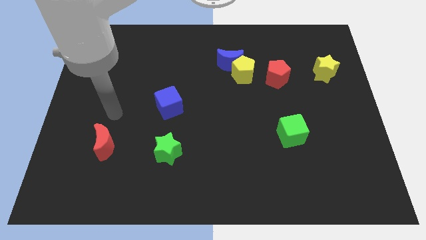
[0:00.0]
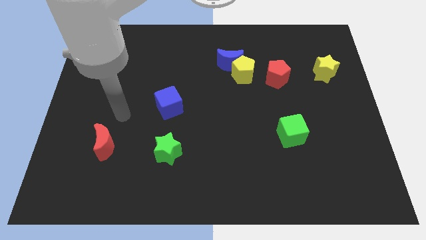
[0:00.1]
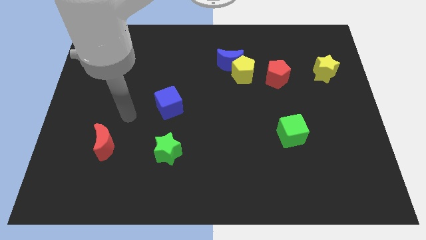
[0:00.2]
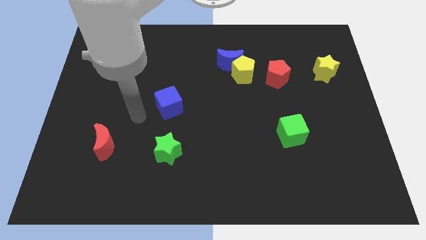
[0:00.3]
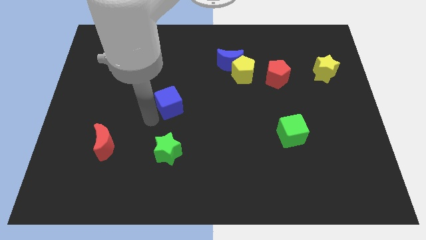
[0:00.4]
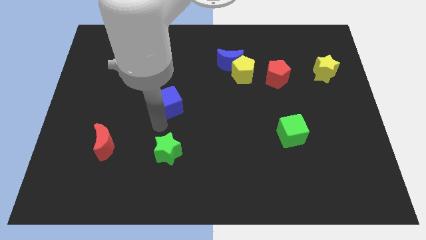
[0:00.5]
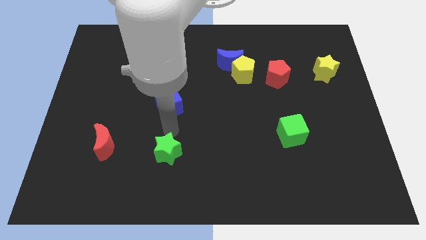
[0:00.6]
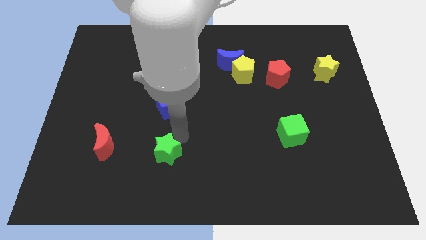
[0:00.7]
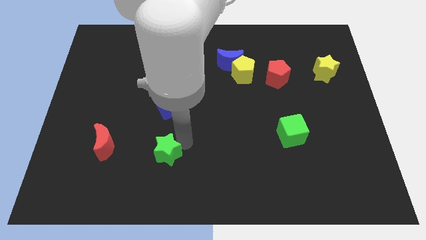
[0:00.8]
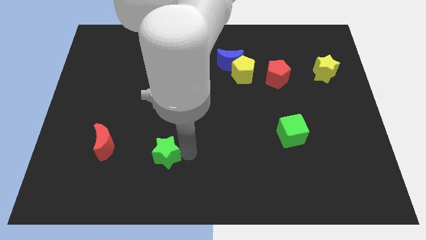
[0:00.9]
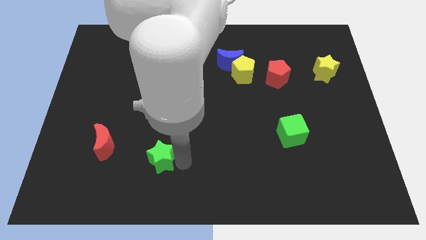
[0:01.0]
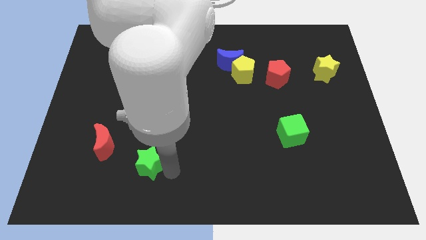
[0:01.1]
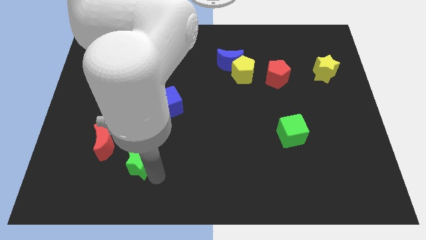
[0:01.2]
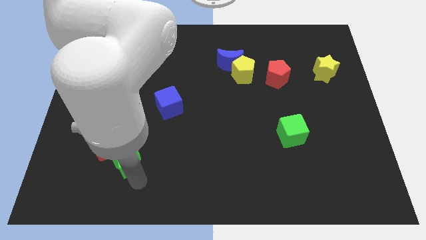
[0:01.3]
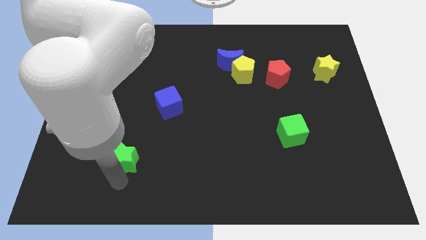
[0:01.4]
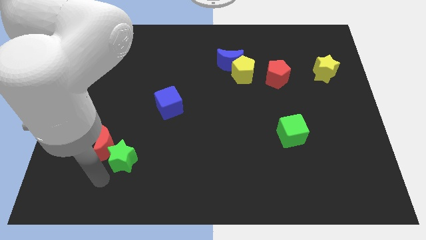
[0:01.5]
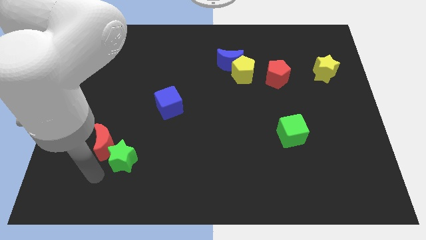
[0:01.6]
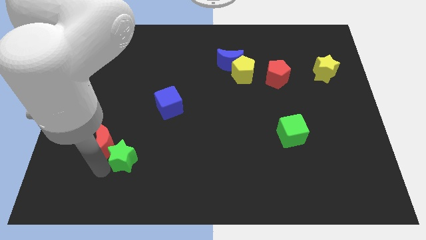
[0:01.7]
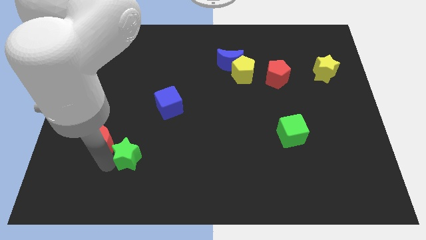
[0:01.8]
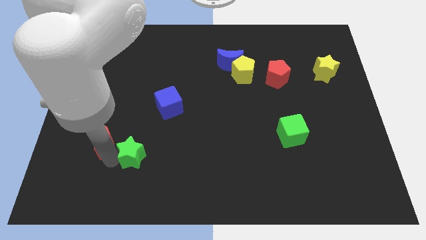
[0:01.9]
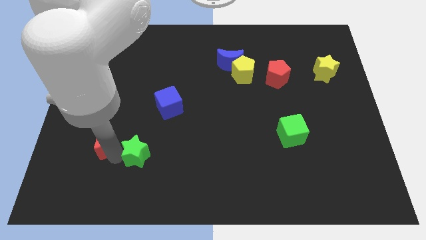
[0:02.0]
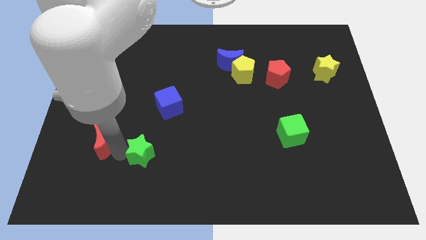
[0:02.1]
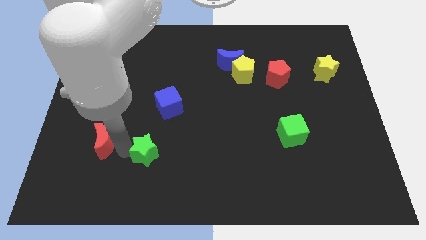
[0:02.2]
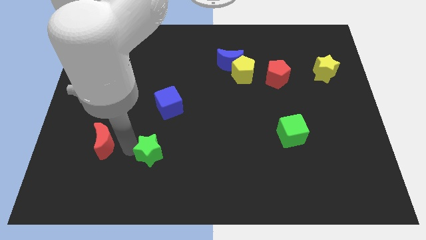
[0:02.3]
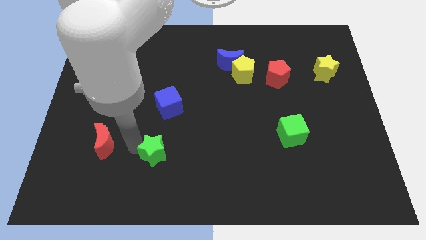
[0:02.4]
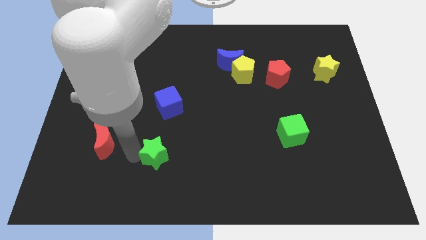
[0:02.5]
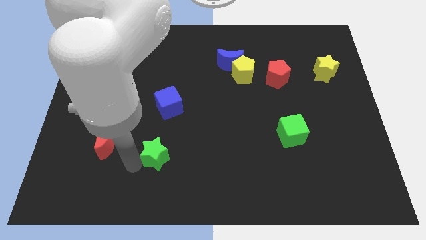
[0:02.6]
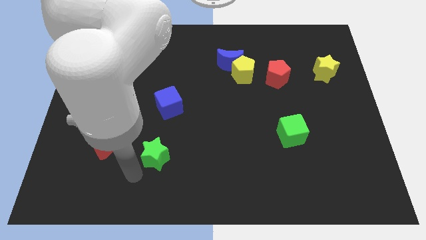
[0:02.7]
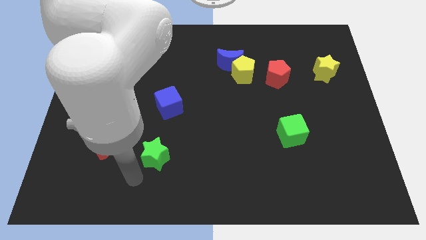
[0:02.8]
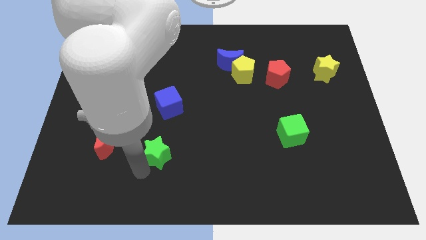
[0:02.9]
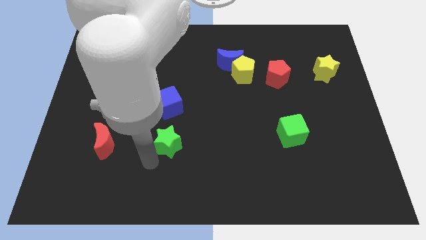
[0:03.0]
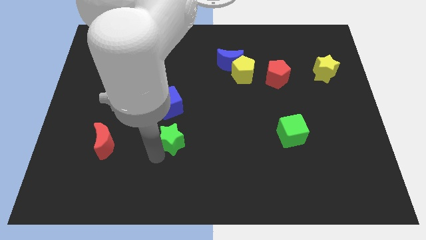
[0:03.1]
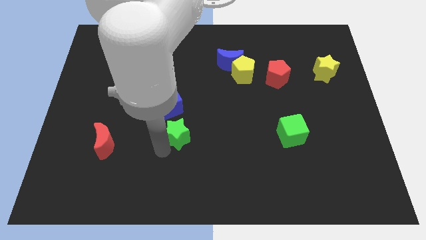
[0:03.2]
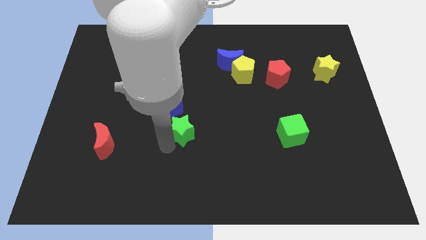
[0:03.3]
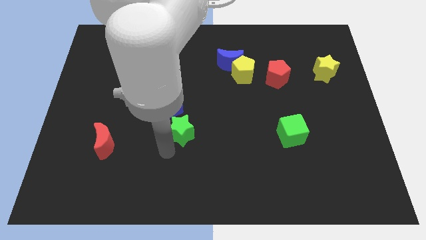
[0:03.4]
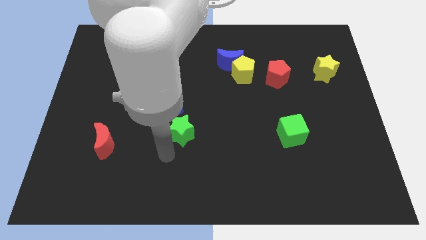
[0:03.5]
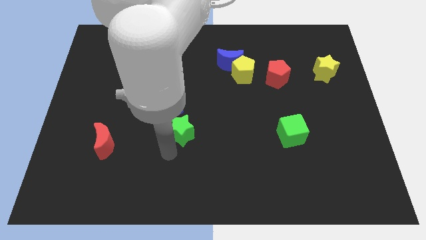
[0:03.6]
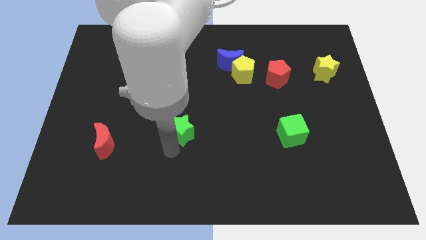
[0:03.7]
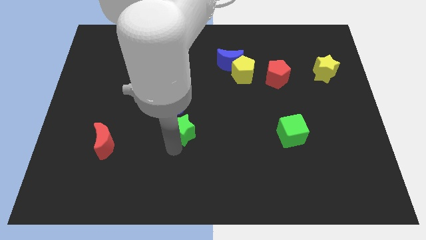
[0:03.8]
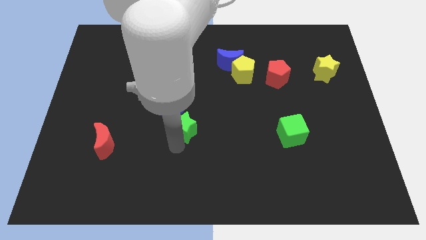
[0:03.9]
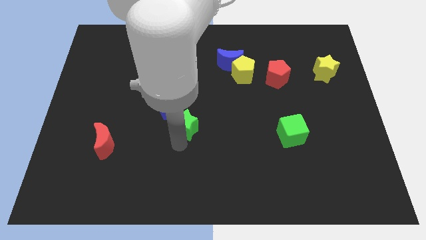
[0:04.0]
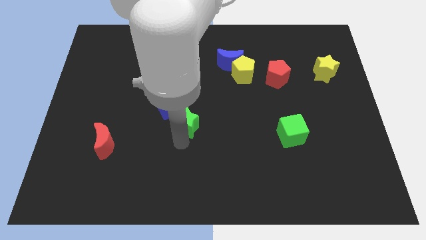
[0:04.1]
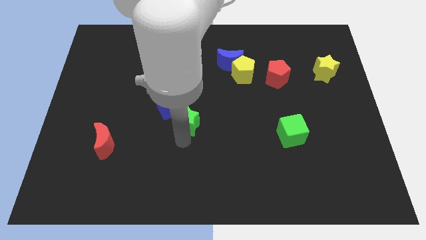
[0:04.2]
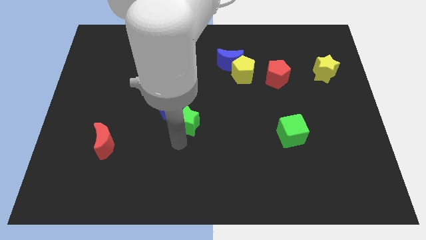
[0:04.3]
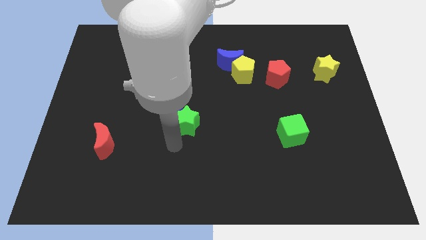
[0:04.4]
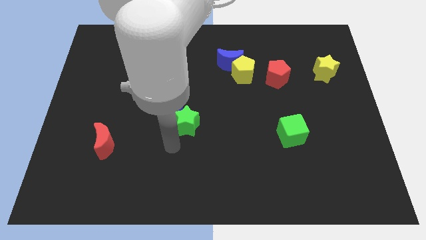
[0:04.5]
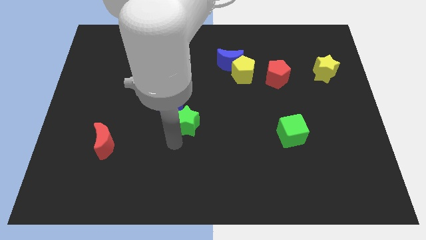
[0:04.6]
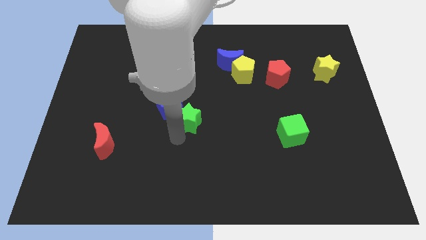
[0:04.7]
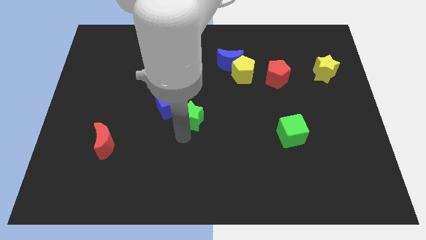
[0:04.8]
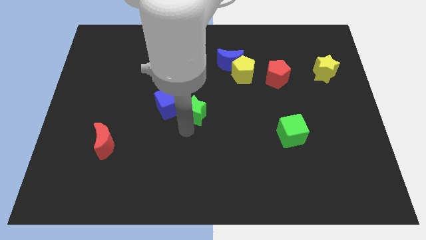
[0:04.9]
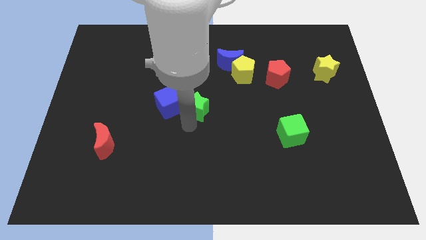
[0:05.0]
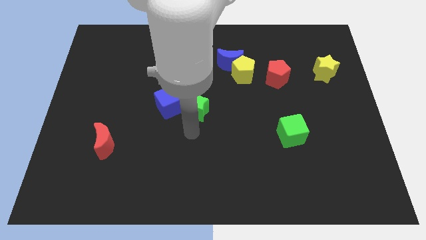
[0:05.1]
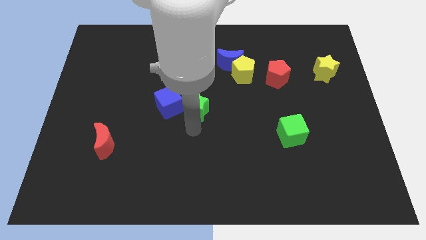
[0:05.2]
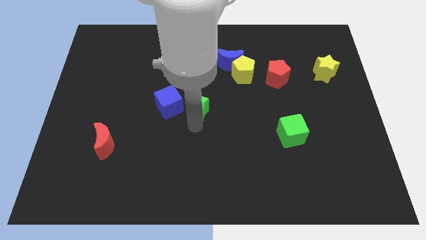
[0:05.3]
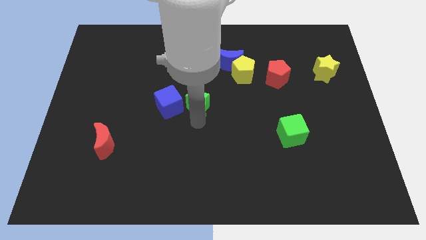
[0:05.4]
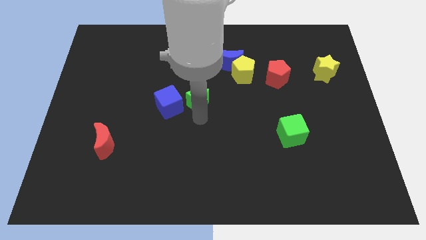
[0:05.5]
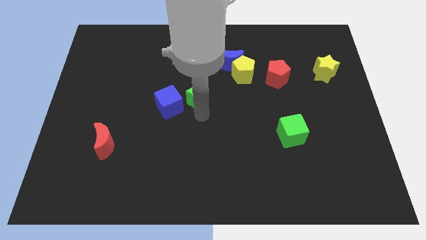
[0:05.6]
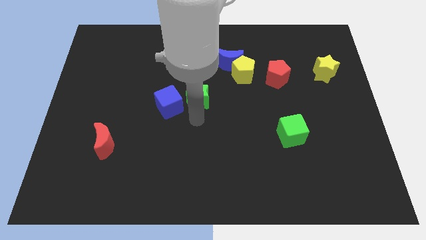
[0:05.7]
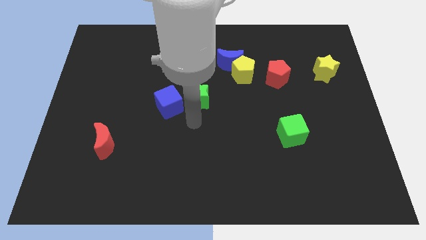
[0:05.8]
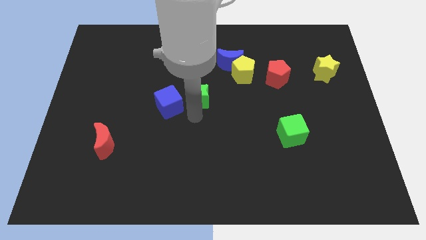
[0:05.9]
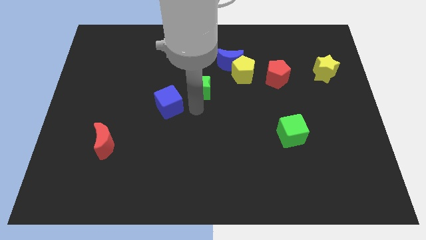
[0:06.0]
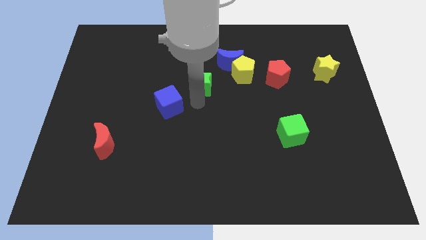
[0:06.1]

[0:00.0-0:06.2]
push the green star left of the yellow pentagon

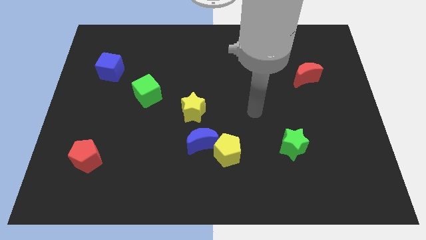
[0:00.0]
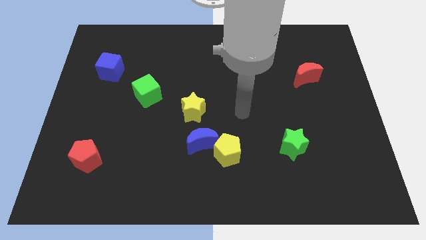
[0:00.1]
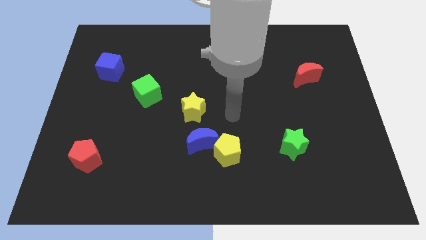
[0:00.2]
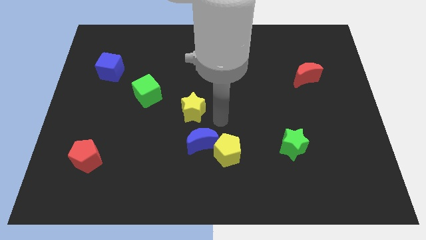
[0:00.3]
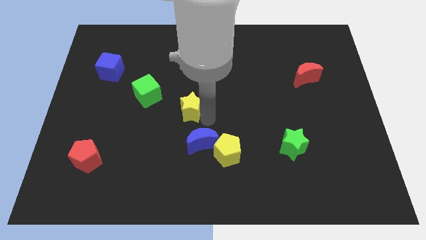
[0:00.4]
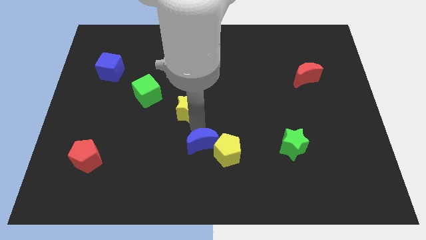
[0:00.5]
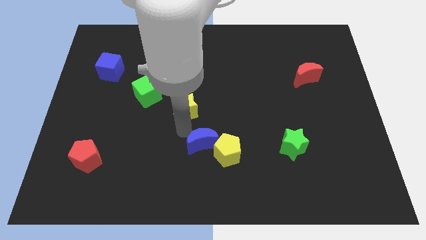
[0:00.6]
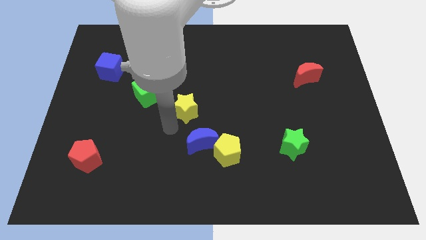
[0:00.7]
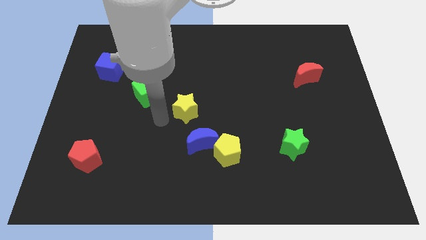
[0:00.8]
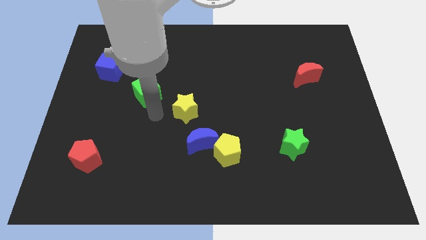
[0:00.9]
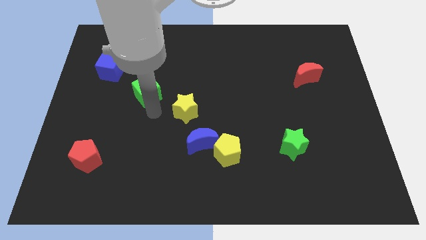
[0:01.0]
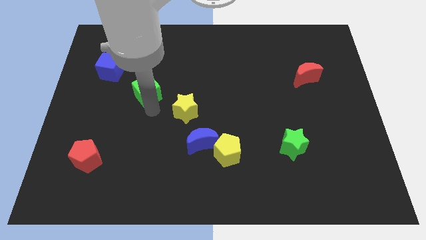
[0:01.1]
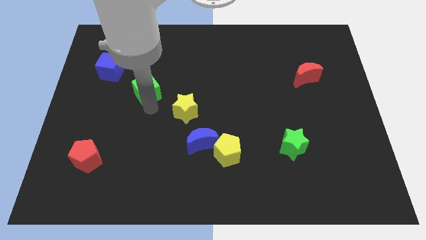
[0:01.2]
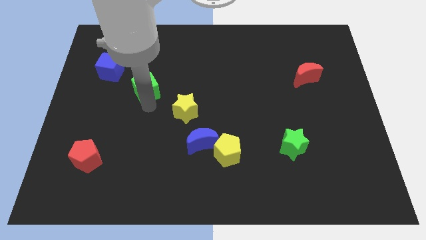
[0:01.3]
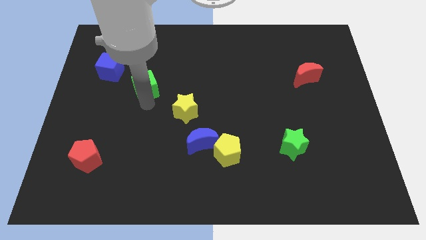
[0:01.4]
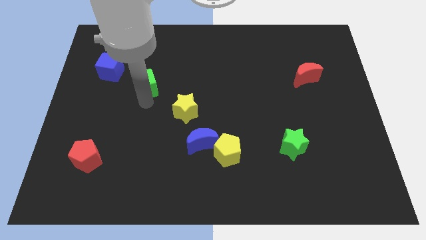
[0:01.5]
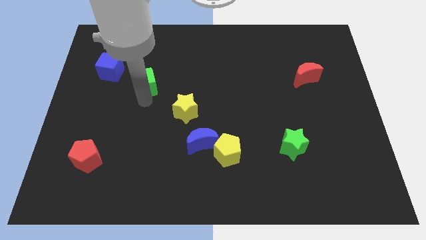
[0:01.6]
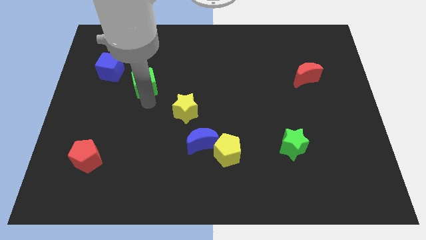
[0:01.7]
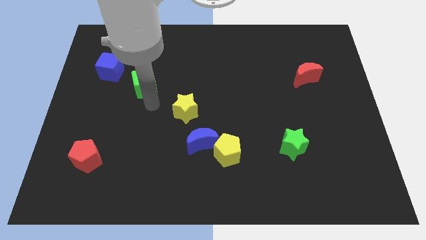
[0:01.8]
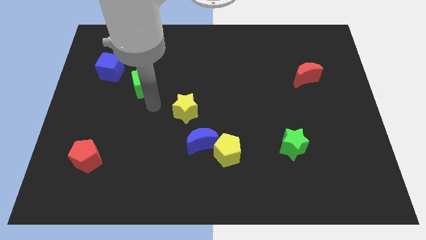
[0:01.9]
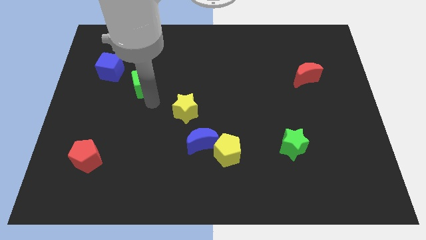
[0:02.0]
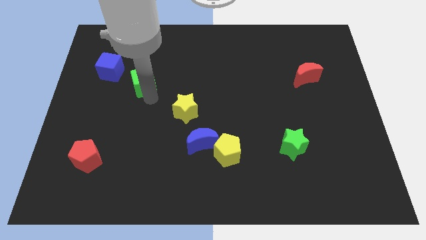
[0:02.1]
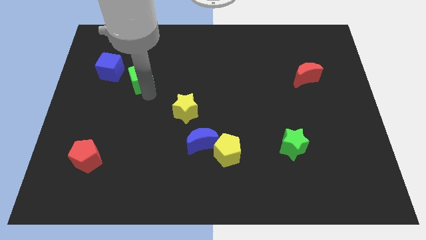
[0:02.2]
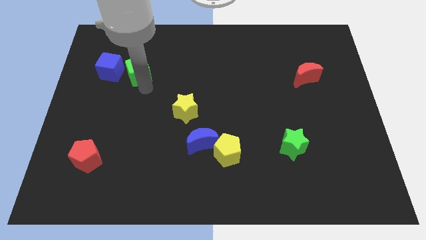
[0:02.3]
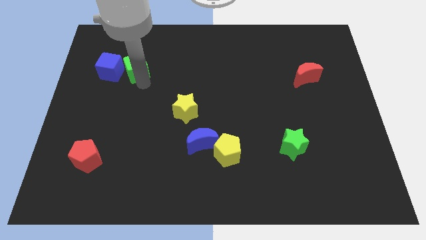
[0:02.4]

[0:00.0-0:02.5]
slide the green cube to the top right of the blue cube
